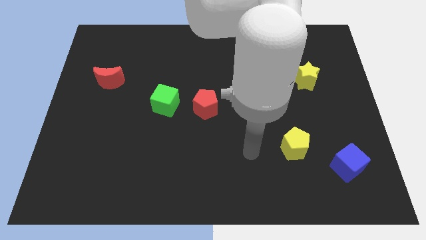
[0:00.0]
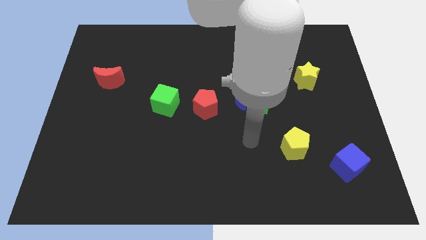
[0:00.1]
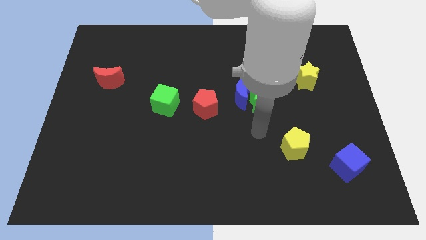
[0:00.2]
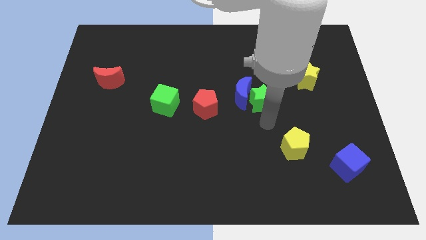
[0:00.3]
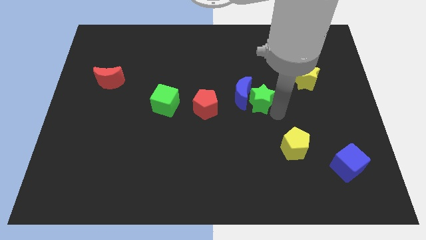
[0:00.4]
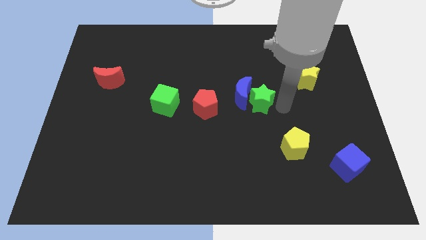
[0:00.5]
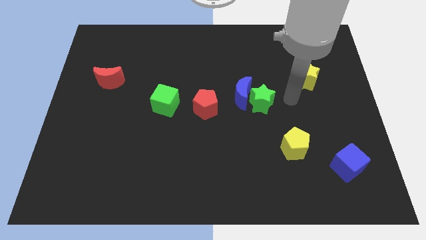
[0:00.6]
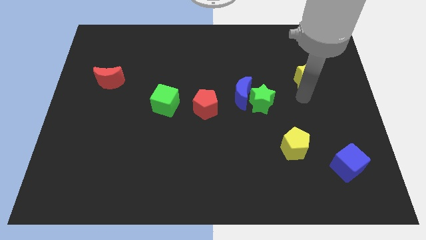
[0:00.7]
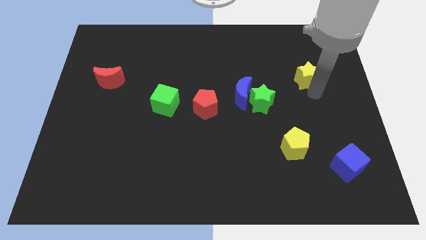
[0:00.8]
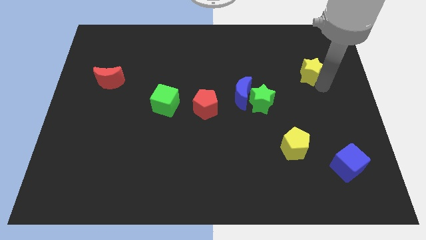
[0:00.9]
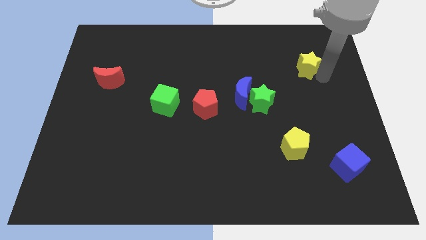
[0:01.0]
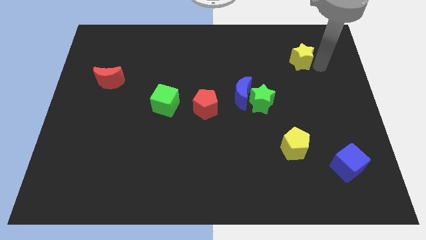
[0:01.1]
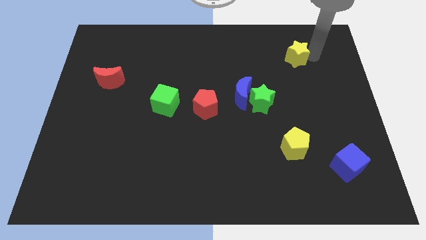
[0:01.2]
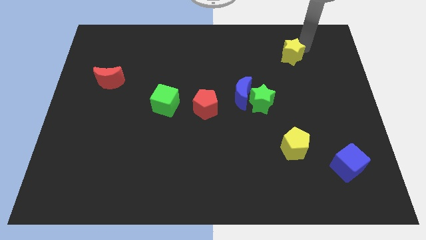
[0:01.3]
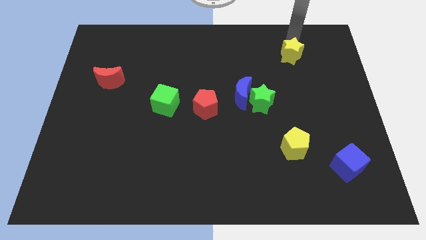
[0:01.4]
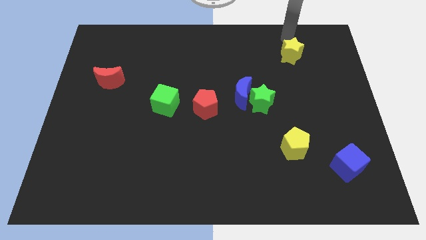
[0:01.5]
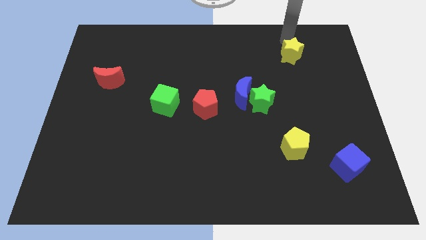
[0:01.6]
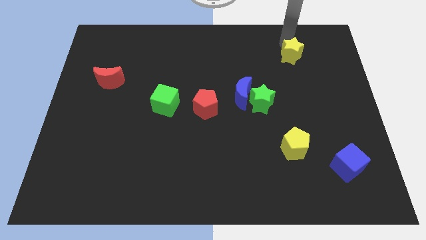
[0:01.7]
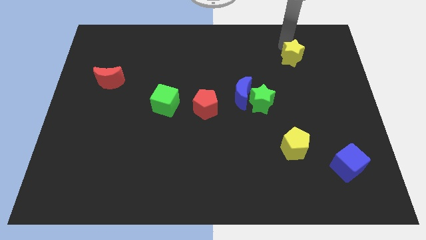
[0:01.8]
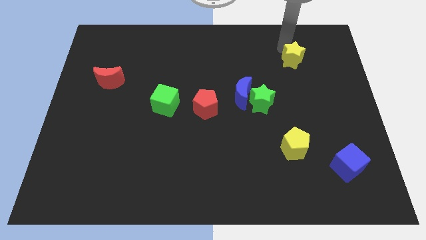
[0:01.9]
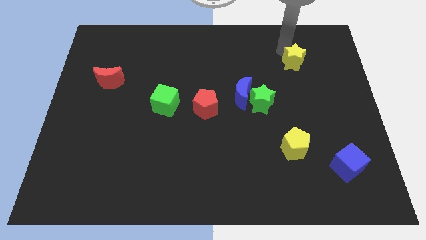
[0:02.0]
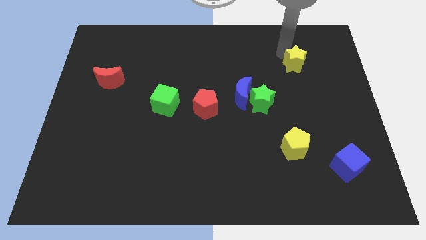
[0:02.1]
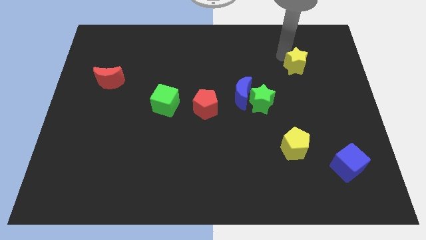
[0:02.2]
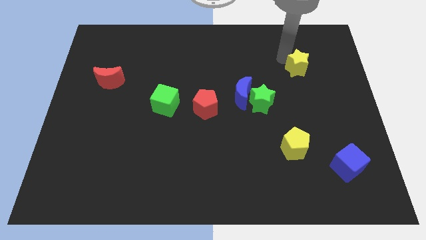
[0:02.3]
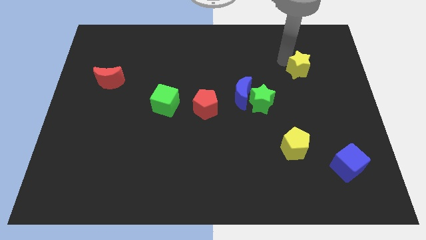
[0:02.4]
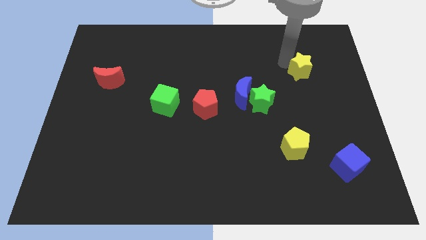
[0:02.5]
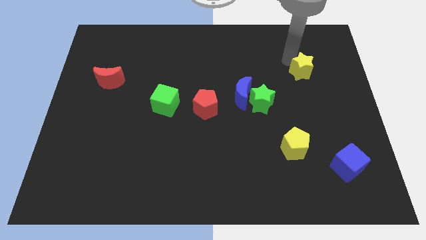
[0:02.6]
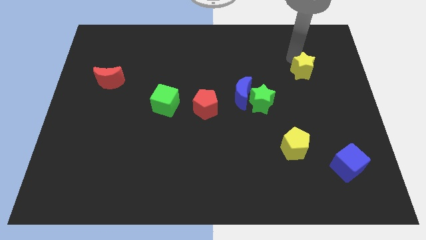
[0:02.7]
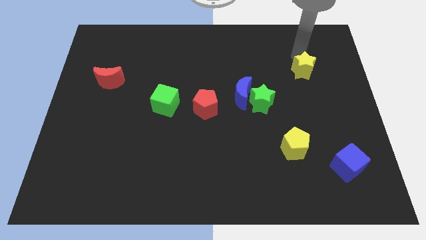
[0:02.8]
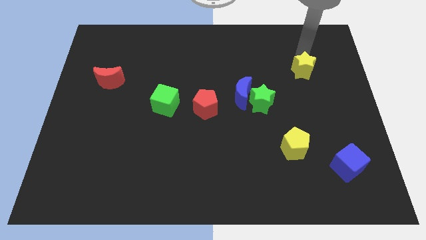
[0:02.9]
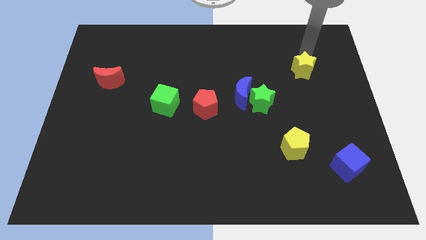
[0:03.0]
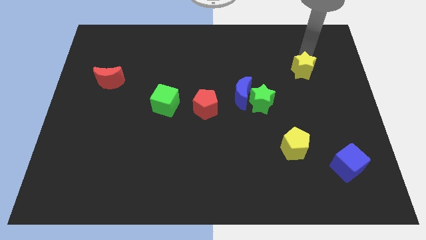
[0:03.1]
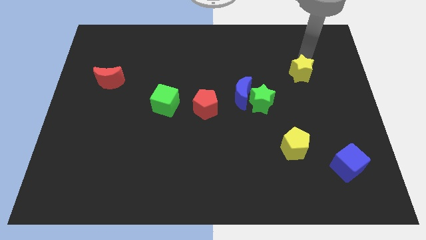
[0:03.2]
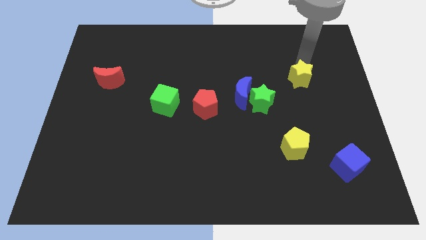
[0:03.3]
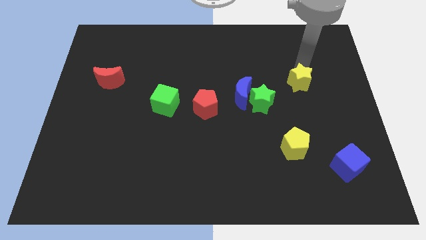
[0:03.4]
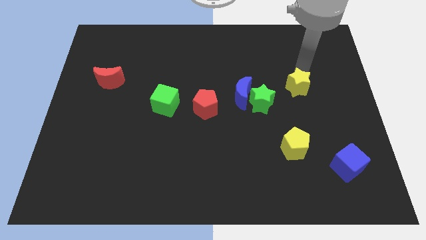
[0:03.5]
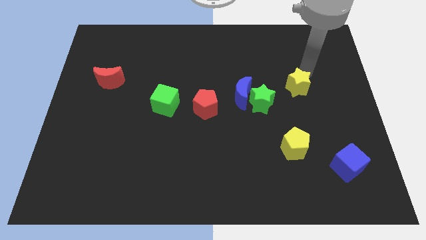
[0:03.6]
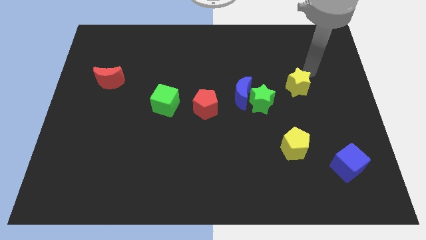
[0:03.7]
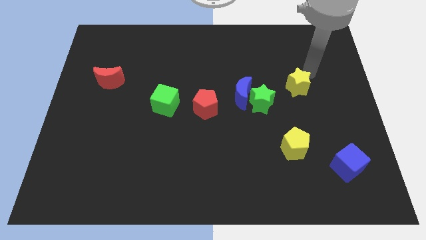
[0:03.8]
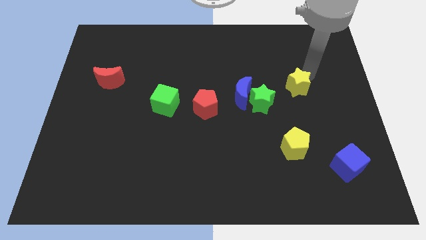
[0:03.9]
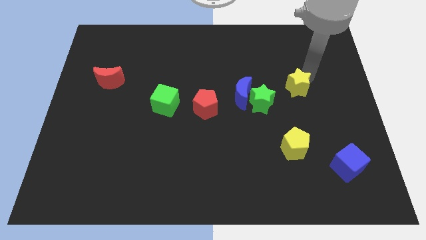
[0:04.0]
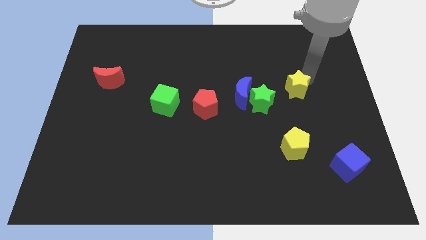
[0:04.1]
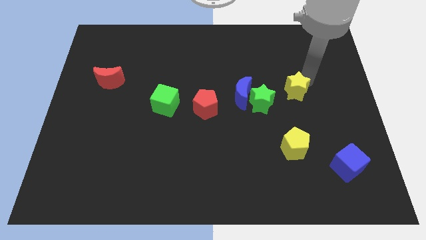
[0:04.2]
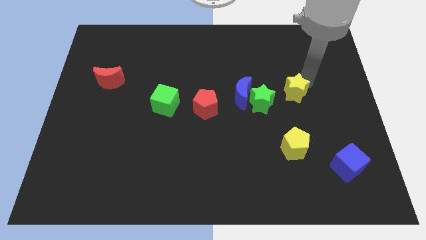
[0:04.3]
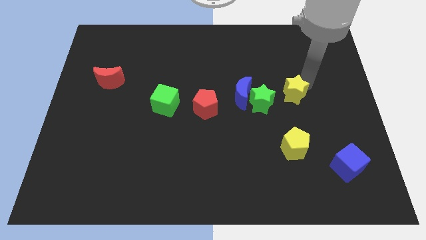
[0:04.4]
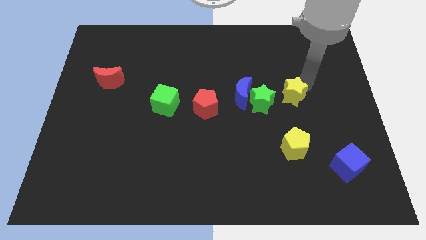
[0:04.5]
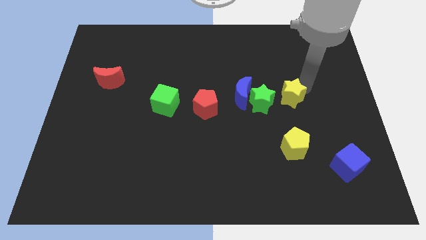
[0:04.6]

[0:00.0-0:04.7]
push the yellow star diagonally downwards and left a bit

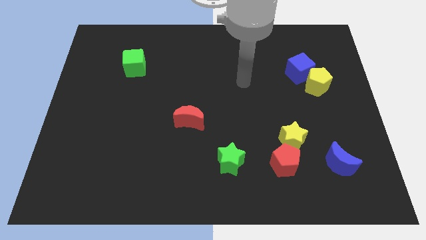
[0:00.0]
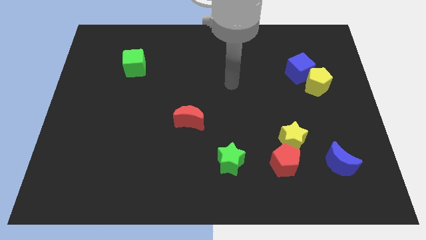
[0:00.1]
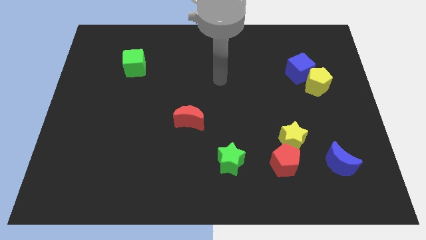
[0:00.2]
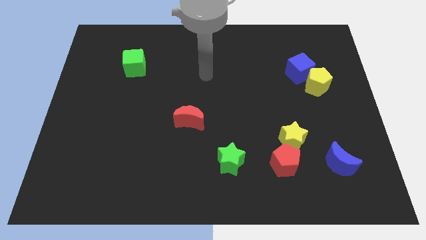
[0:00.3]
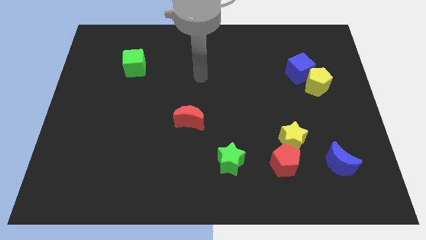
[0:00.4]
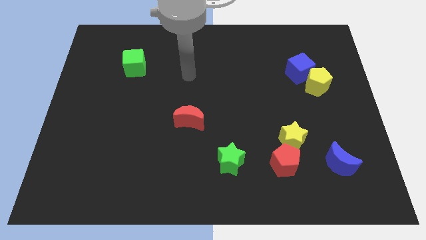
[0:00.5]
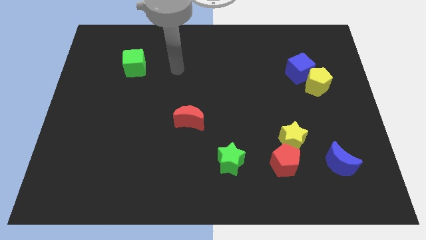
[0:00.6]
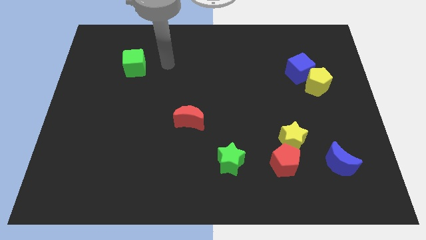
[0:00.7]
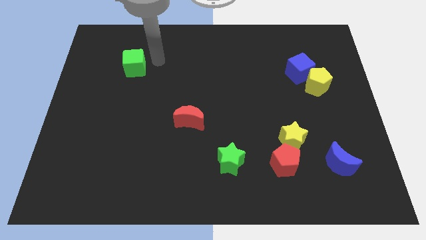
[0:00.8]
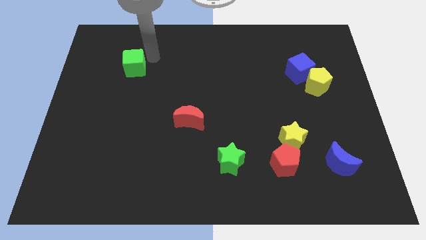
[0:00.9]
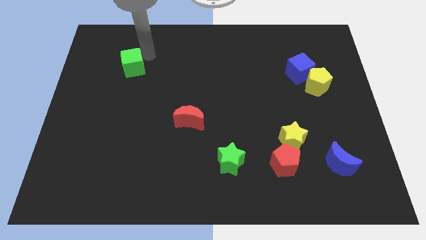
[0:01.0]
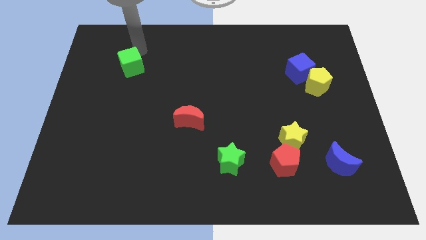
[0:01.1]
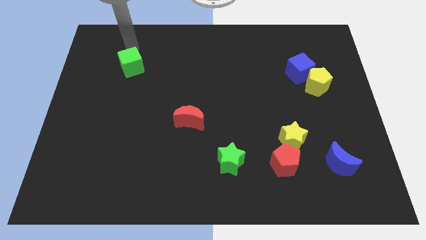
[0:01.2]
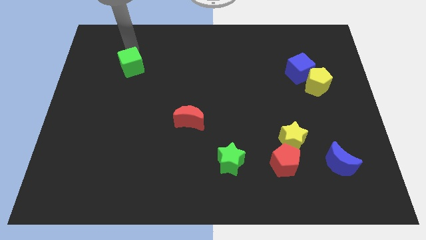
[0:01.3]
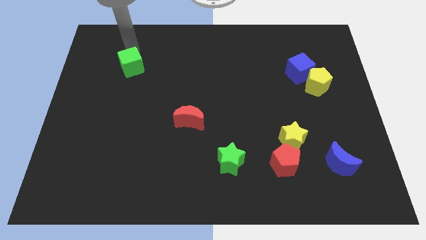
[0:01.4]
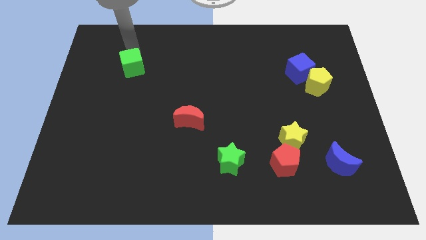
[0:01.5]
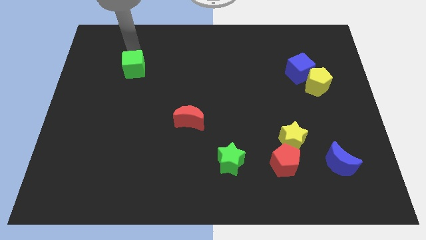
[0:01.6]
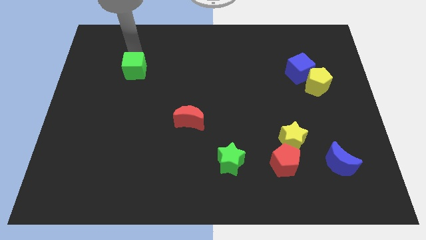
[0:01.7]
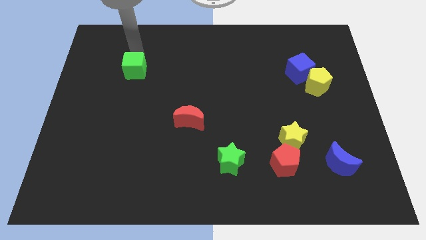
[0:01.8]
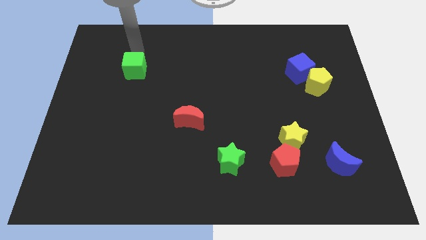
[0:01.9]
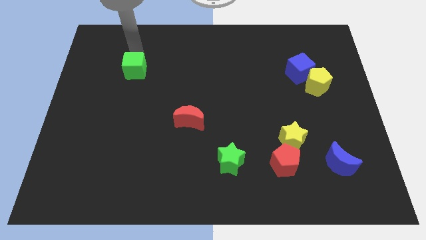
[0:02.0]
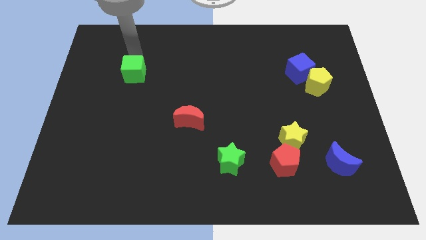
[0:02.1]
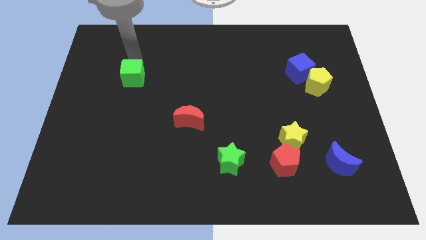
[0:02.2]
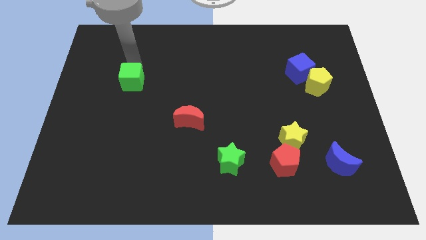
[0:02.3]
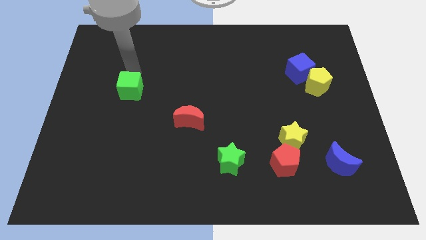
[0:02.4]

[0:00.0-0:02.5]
slide the green cube downwards a little bit

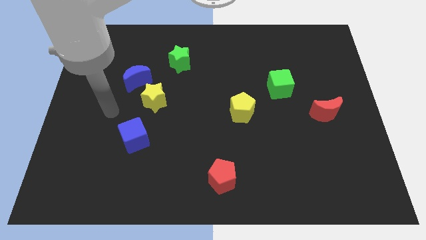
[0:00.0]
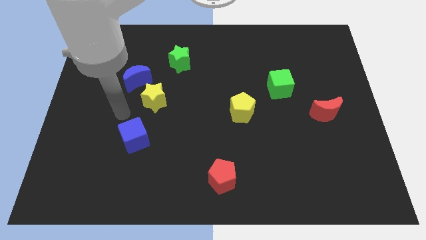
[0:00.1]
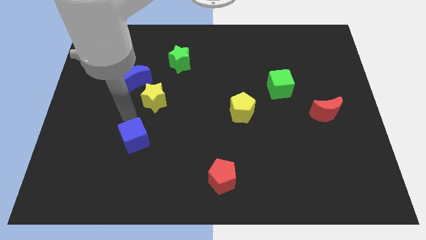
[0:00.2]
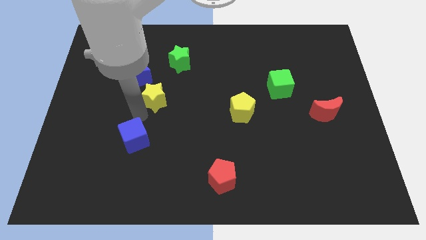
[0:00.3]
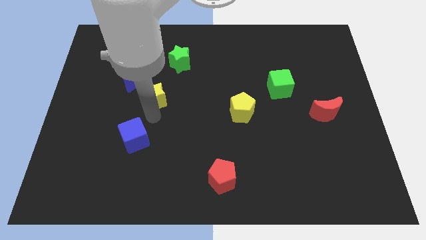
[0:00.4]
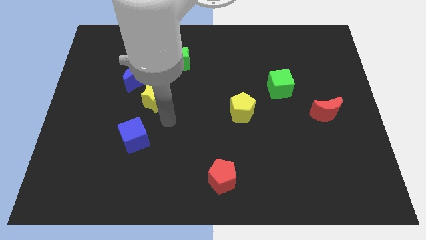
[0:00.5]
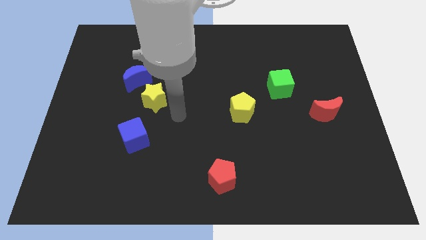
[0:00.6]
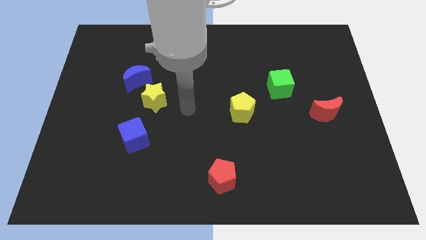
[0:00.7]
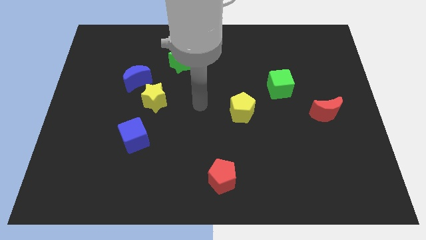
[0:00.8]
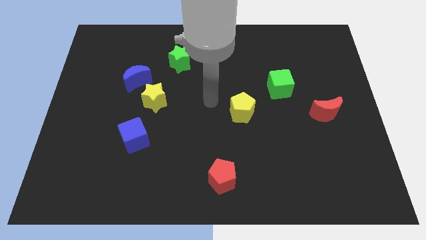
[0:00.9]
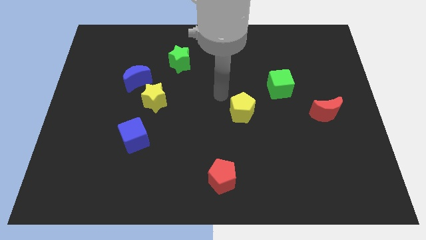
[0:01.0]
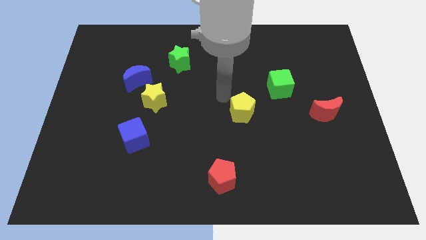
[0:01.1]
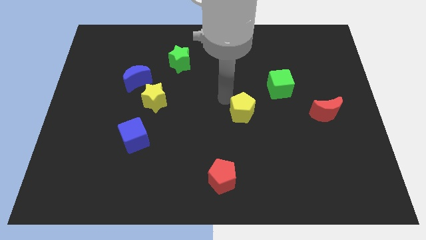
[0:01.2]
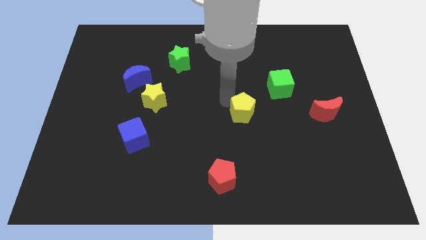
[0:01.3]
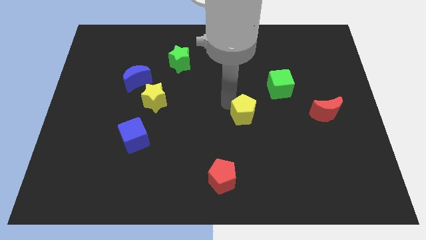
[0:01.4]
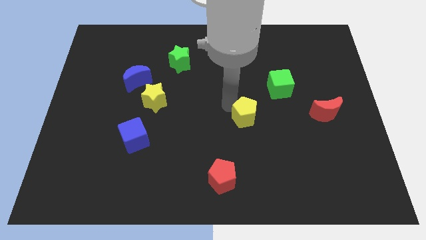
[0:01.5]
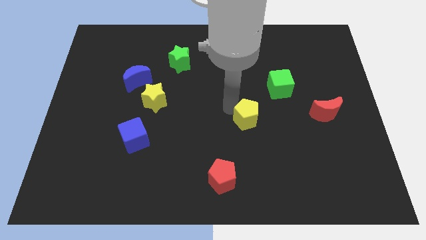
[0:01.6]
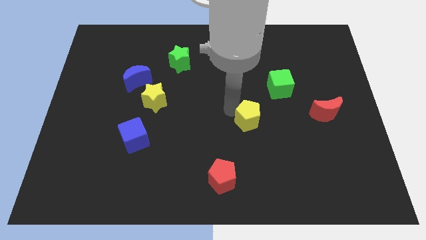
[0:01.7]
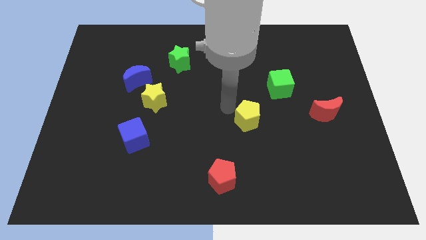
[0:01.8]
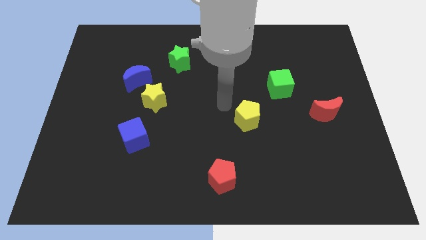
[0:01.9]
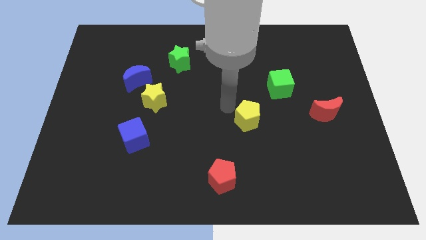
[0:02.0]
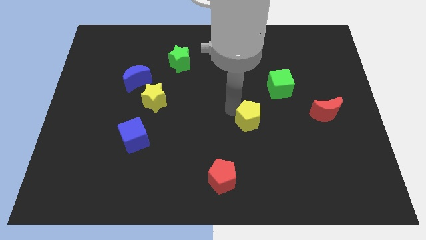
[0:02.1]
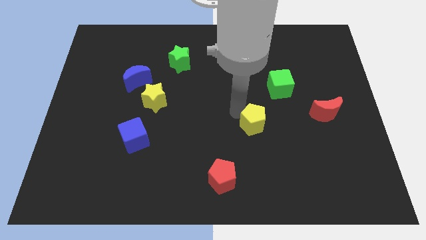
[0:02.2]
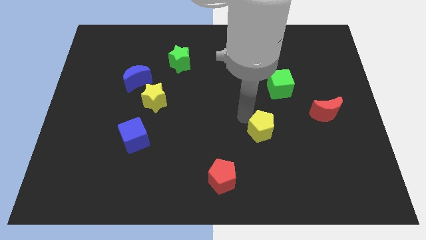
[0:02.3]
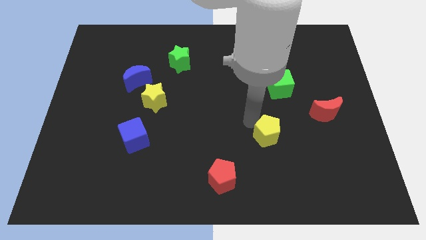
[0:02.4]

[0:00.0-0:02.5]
slightly push the yellow pentagon down and right
